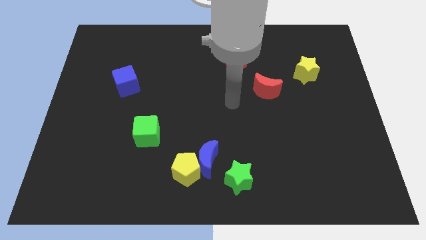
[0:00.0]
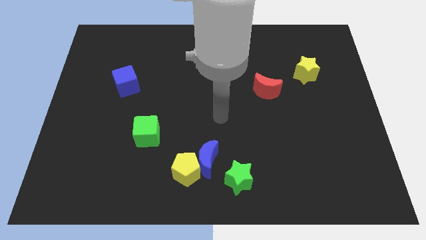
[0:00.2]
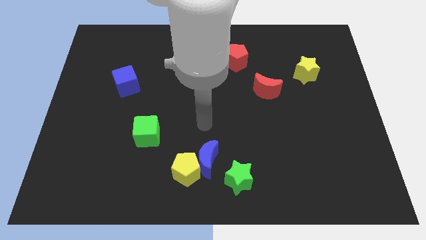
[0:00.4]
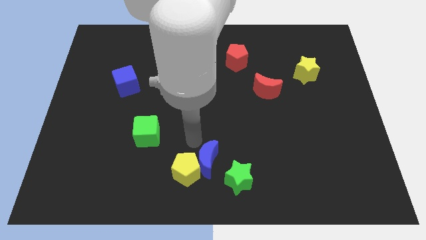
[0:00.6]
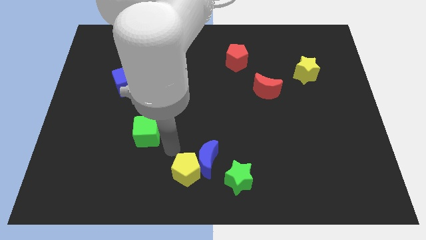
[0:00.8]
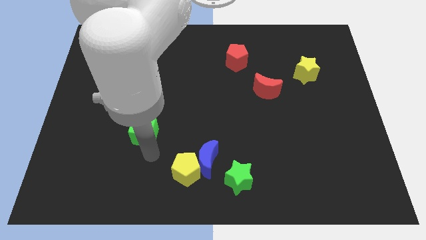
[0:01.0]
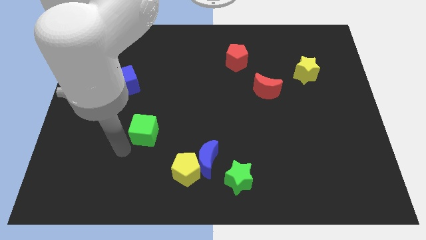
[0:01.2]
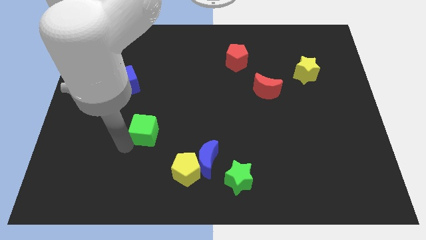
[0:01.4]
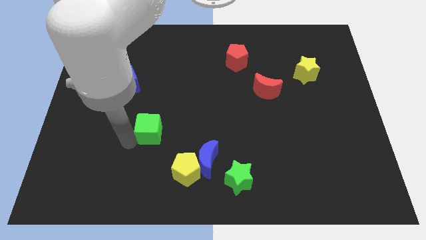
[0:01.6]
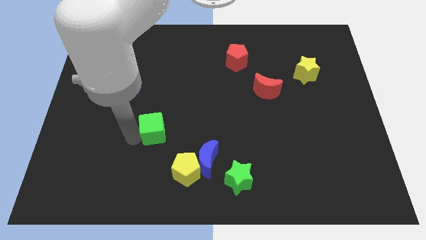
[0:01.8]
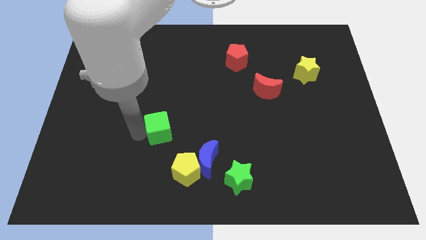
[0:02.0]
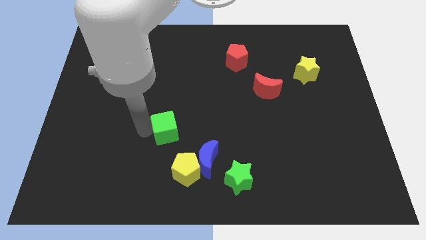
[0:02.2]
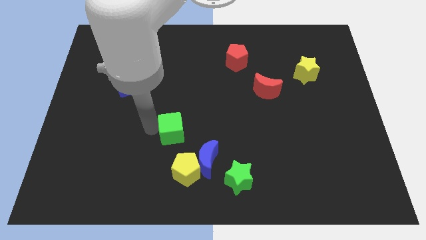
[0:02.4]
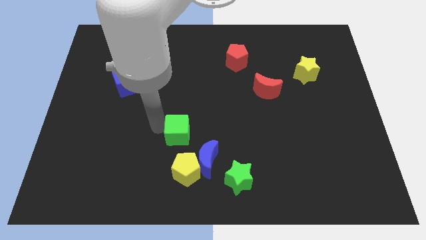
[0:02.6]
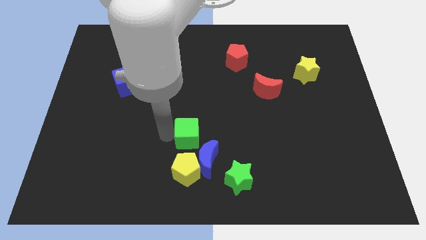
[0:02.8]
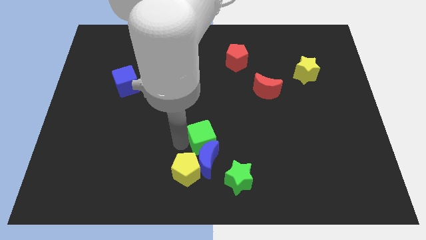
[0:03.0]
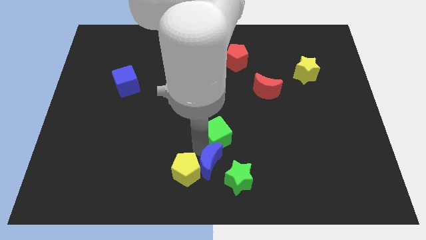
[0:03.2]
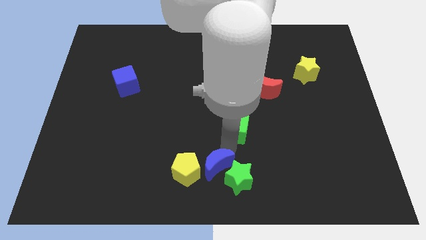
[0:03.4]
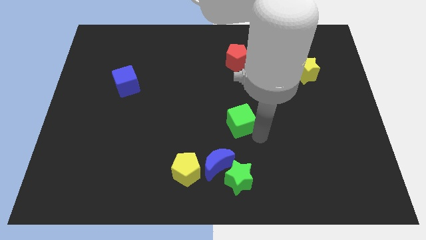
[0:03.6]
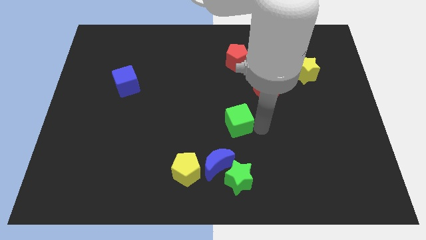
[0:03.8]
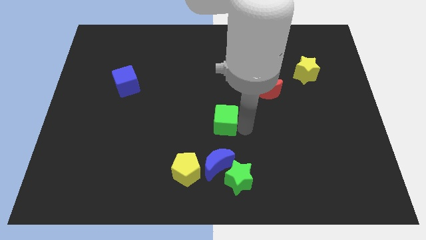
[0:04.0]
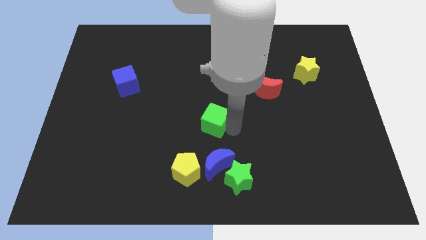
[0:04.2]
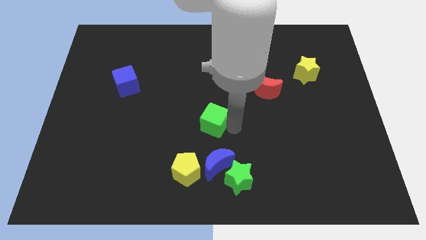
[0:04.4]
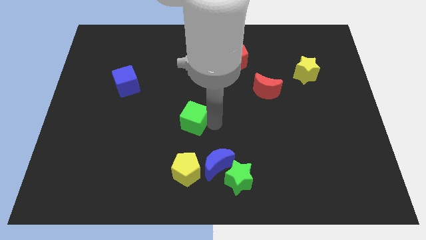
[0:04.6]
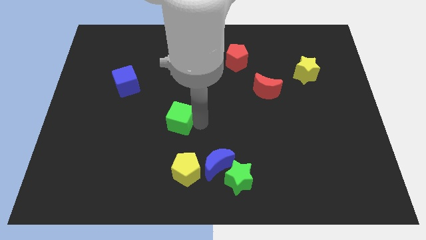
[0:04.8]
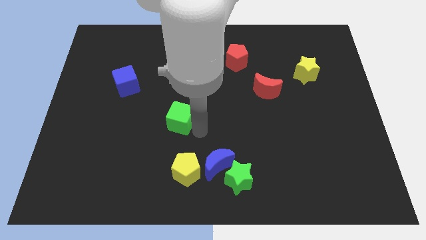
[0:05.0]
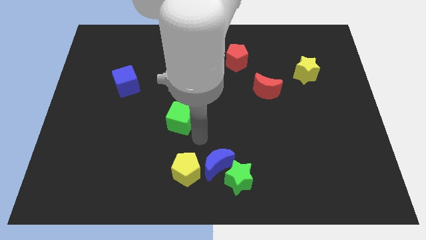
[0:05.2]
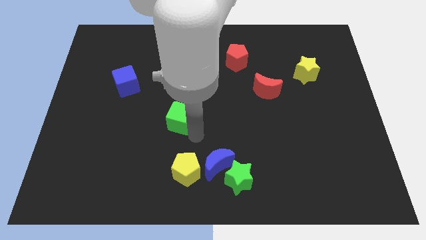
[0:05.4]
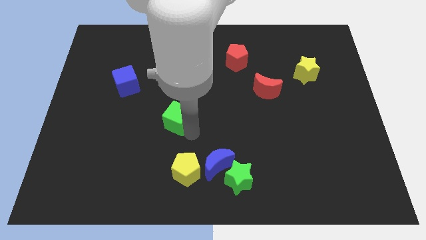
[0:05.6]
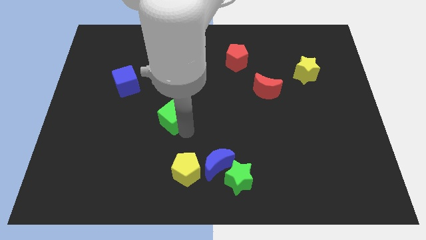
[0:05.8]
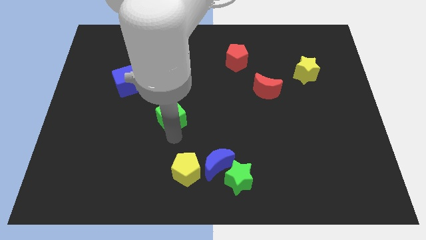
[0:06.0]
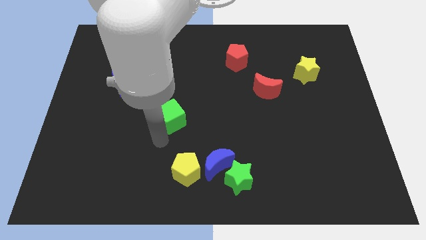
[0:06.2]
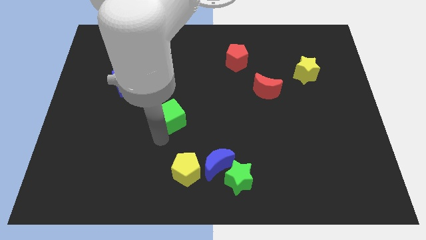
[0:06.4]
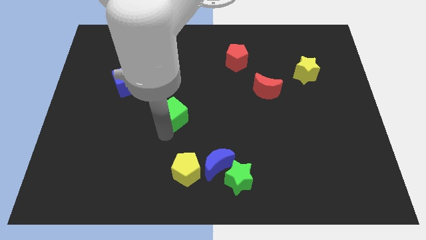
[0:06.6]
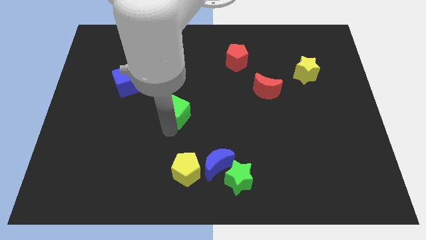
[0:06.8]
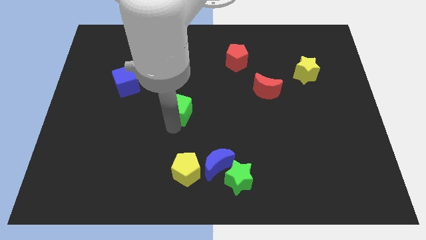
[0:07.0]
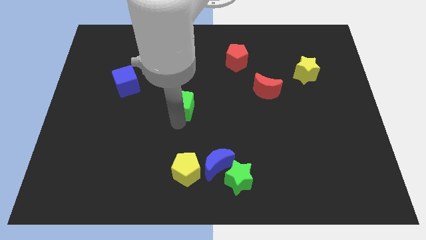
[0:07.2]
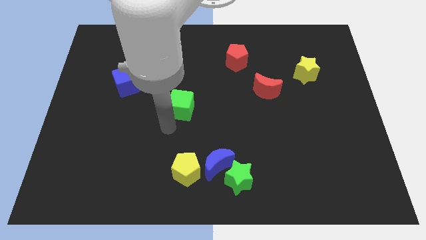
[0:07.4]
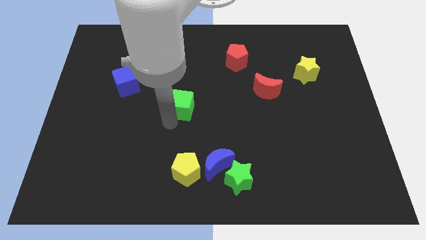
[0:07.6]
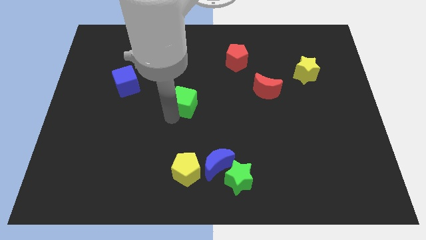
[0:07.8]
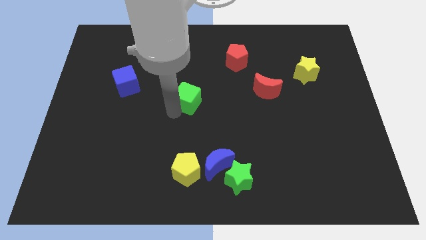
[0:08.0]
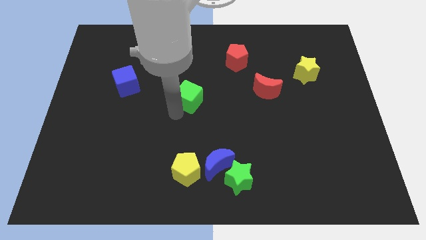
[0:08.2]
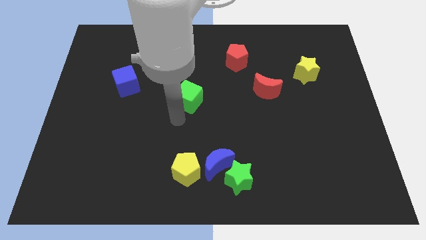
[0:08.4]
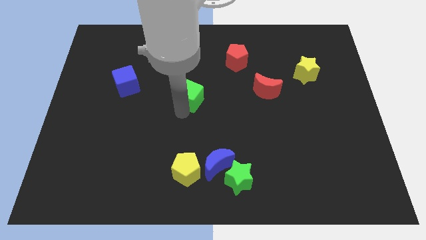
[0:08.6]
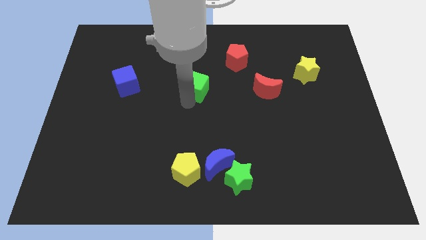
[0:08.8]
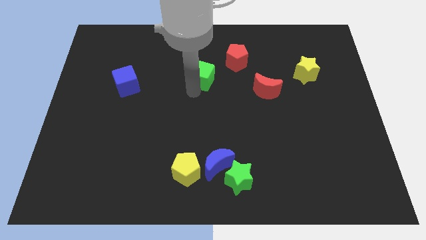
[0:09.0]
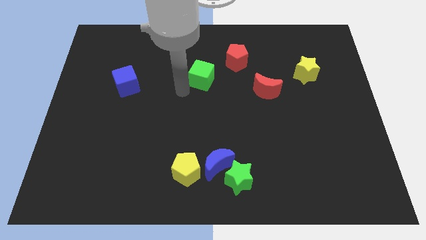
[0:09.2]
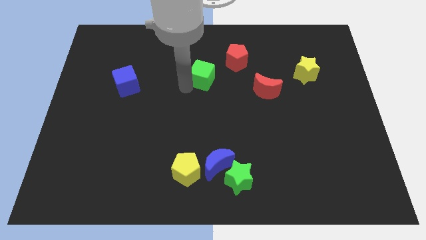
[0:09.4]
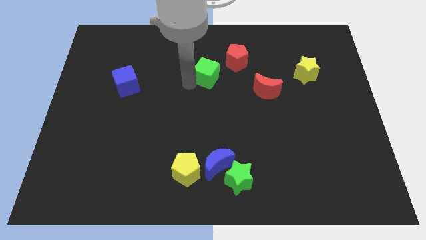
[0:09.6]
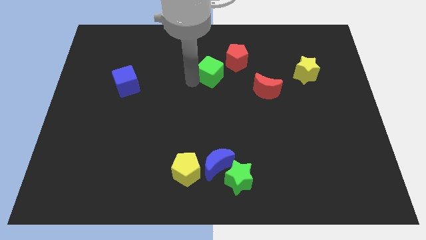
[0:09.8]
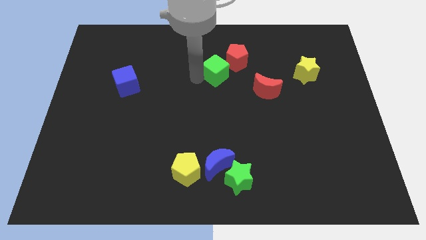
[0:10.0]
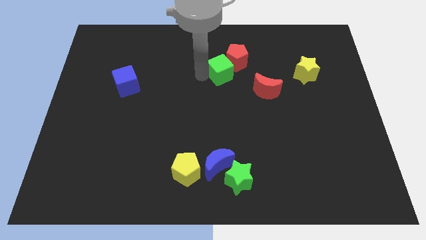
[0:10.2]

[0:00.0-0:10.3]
put the green cube towards the red pentagon

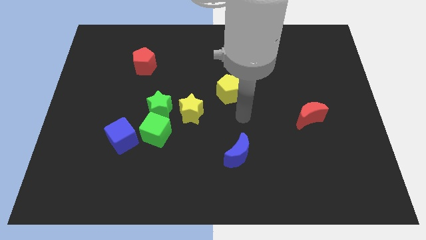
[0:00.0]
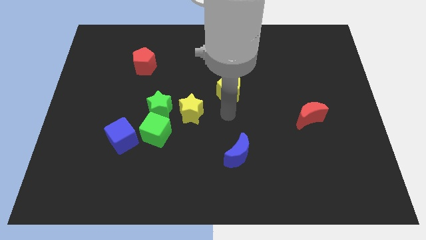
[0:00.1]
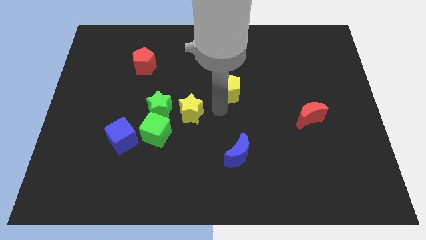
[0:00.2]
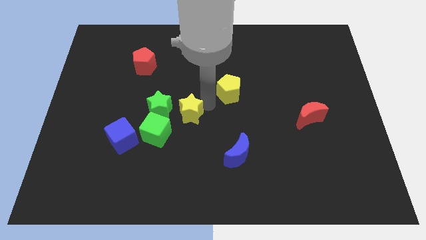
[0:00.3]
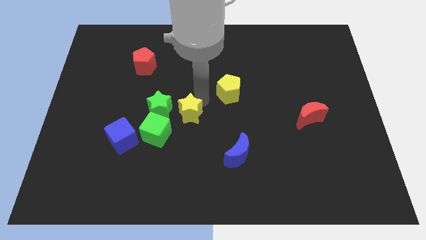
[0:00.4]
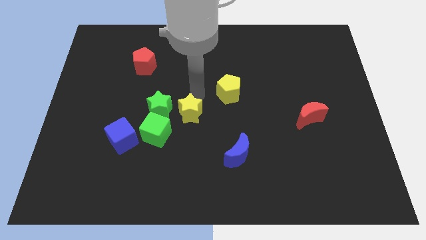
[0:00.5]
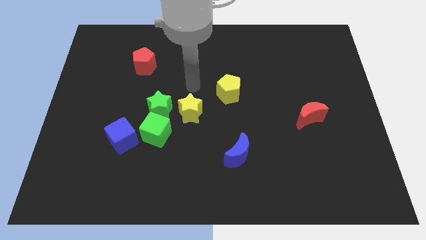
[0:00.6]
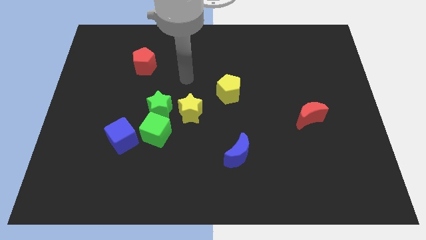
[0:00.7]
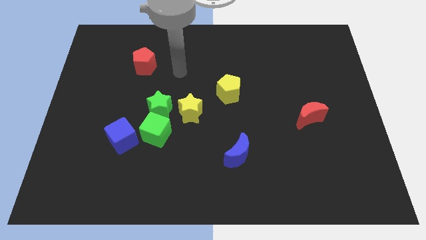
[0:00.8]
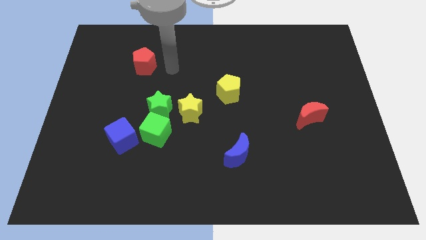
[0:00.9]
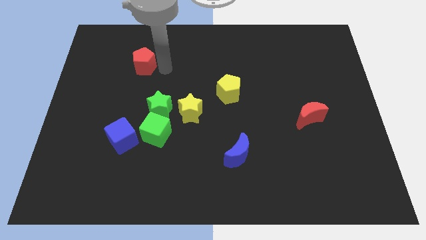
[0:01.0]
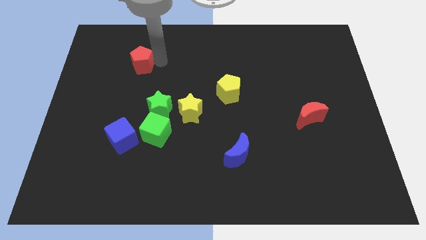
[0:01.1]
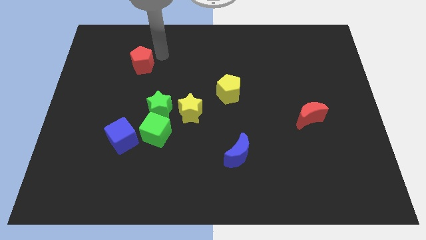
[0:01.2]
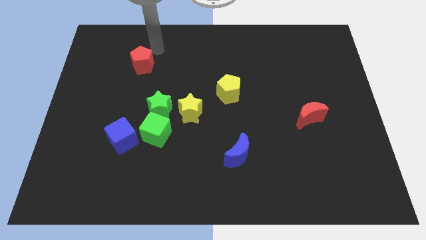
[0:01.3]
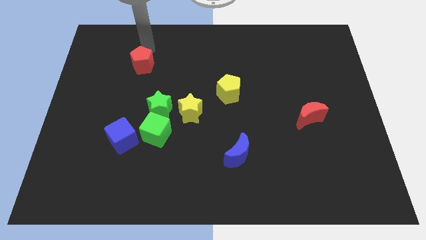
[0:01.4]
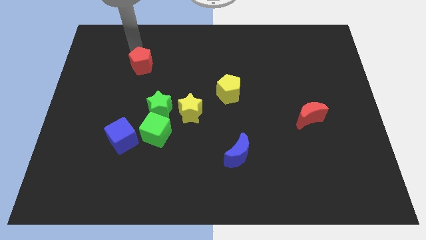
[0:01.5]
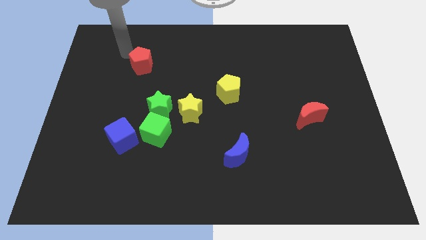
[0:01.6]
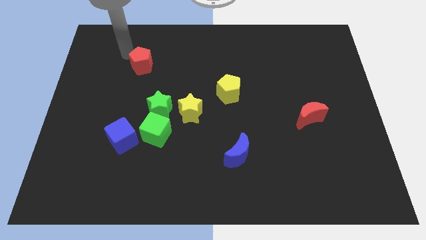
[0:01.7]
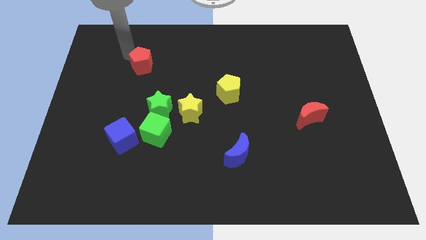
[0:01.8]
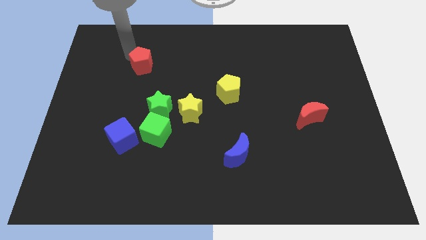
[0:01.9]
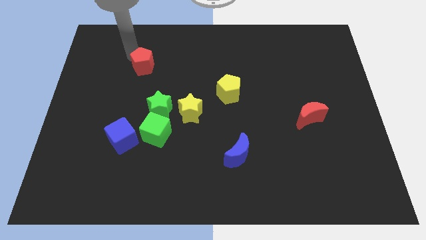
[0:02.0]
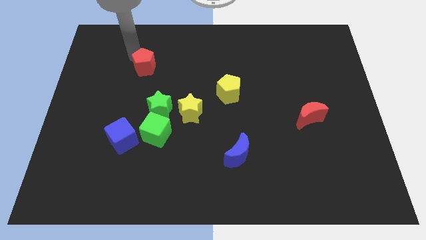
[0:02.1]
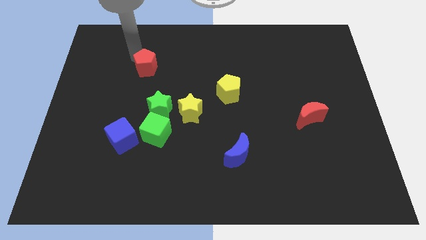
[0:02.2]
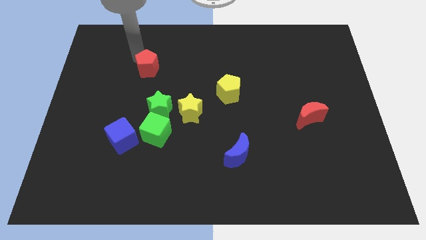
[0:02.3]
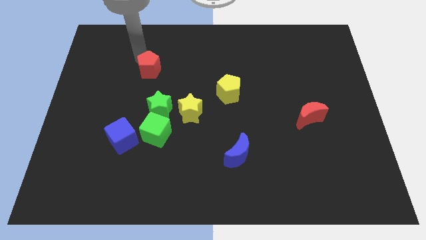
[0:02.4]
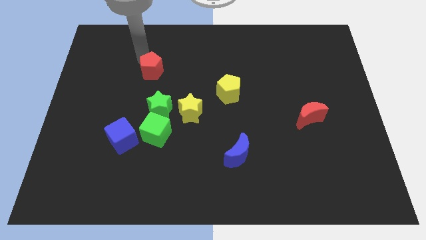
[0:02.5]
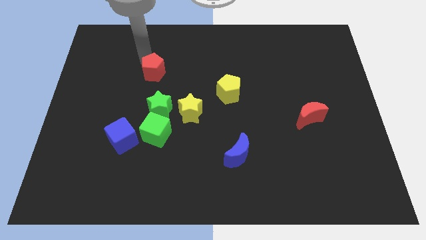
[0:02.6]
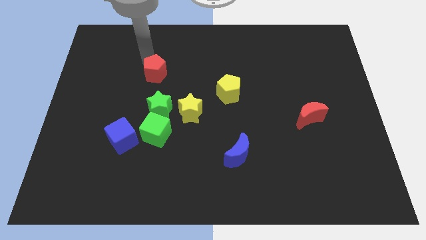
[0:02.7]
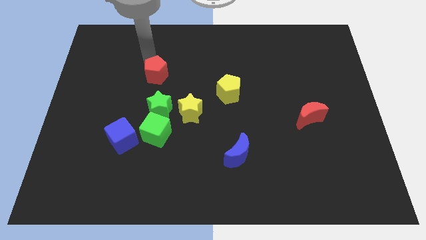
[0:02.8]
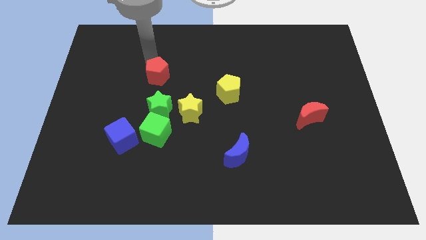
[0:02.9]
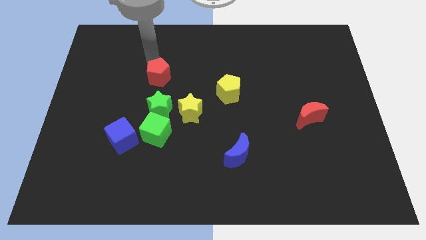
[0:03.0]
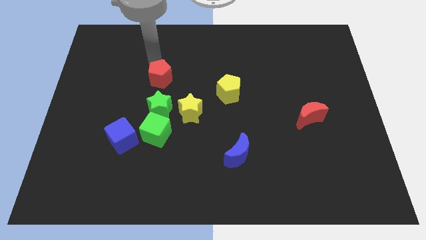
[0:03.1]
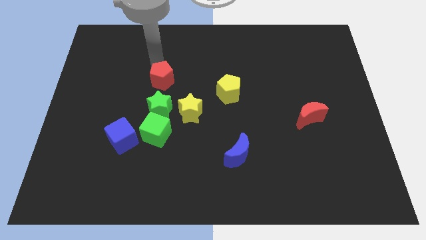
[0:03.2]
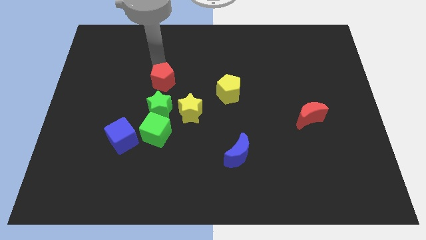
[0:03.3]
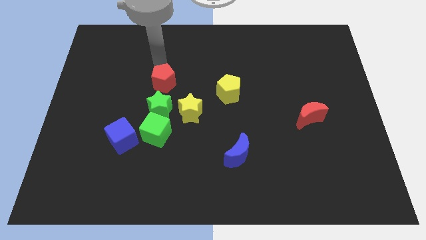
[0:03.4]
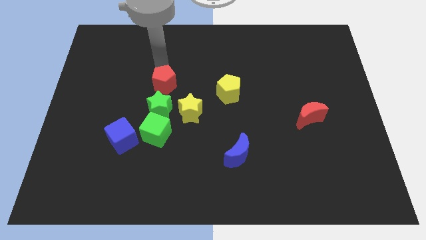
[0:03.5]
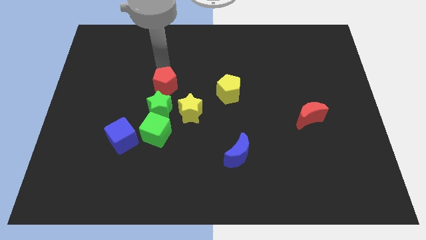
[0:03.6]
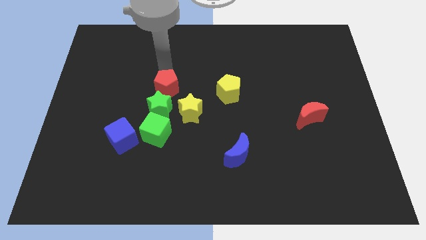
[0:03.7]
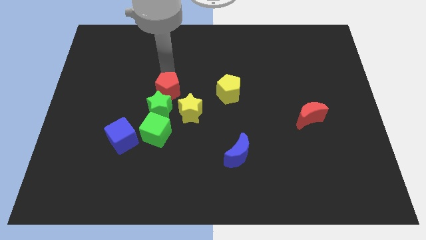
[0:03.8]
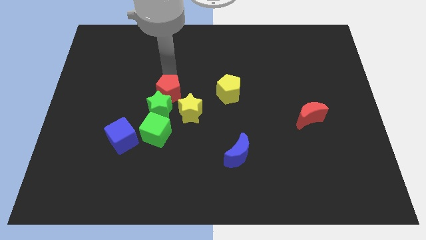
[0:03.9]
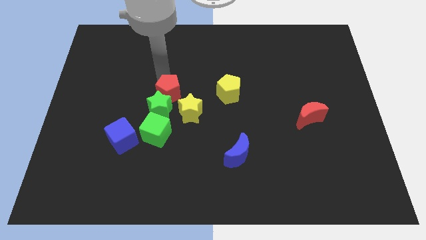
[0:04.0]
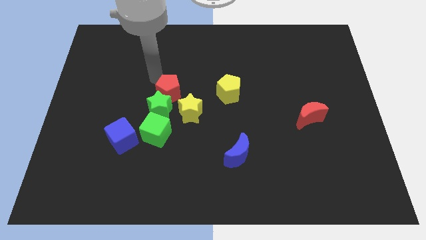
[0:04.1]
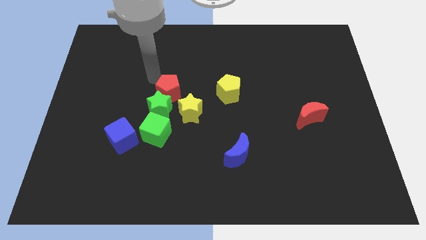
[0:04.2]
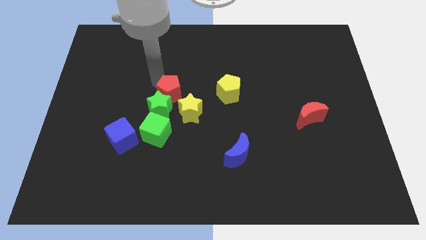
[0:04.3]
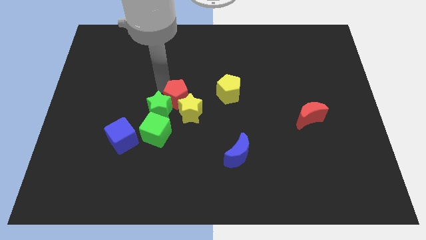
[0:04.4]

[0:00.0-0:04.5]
slide the red pentagon towards the yellow star
